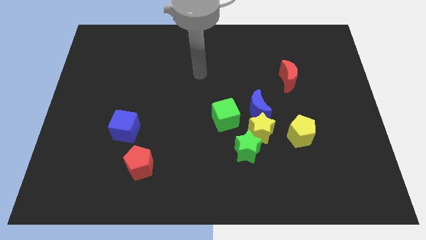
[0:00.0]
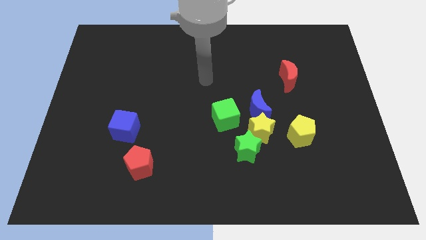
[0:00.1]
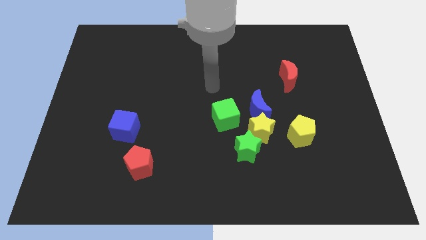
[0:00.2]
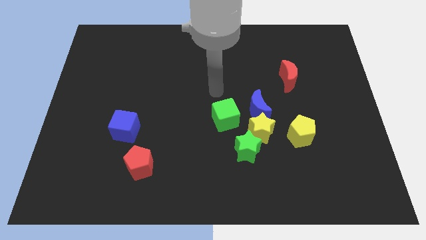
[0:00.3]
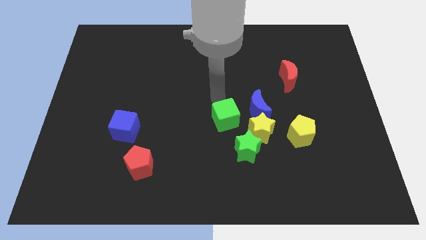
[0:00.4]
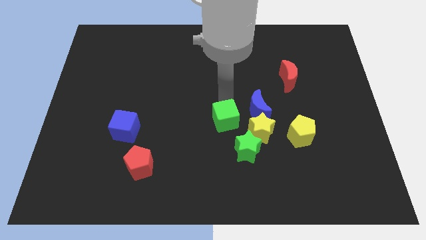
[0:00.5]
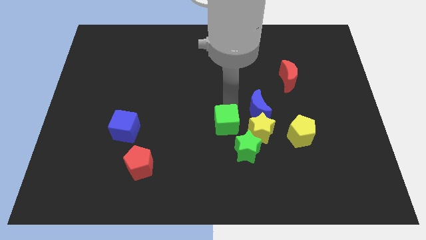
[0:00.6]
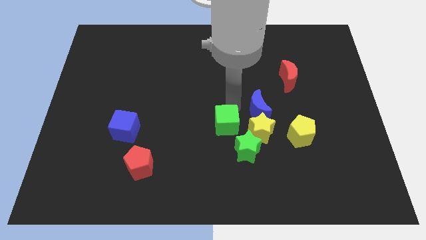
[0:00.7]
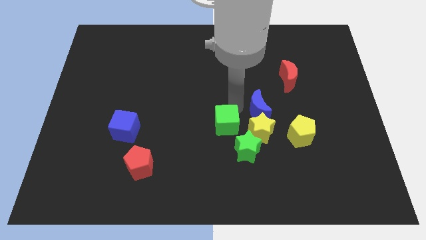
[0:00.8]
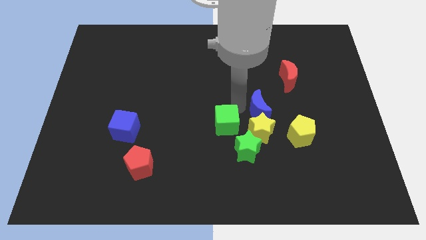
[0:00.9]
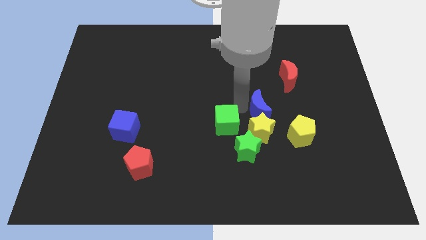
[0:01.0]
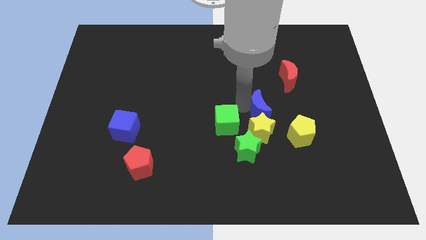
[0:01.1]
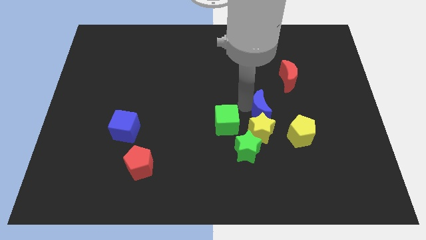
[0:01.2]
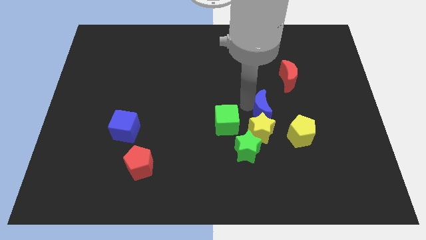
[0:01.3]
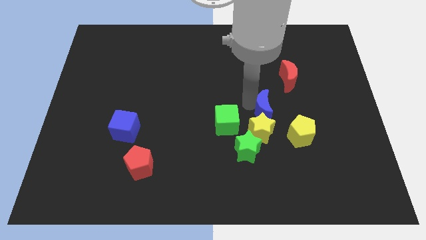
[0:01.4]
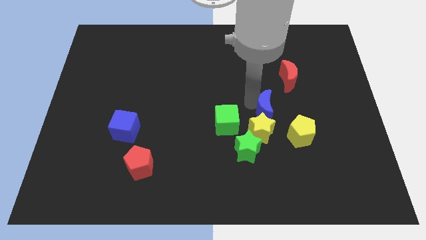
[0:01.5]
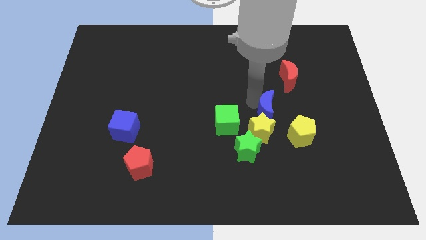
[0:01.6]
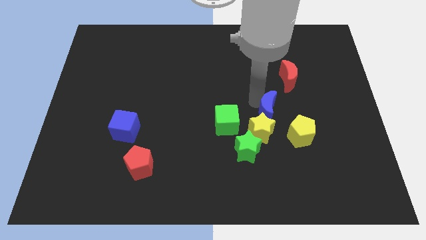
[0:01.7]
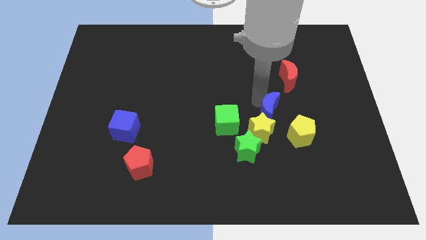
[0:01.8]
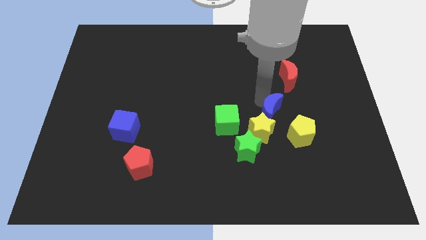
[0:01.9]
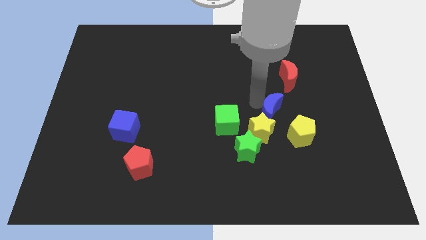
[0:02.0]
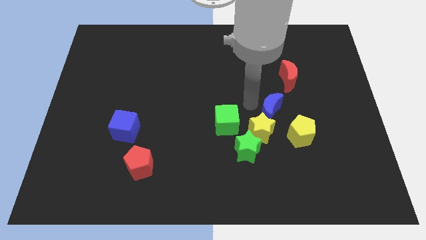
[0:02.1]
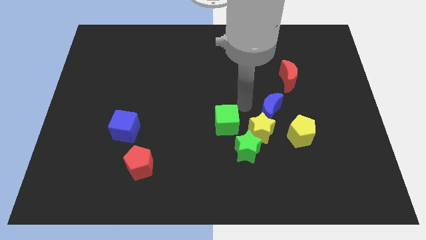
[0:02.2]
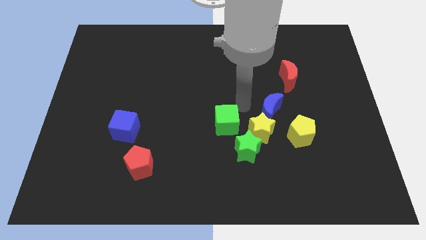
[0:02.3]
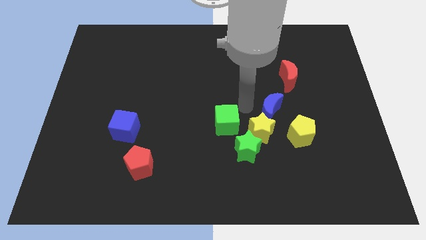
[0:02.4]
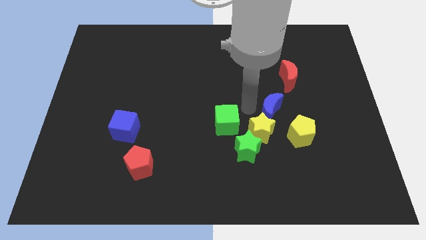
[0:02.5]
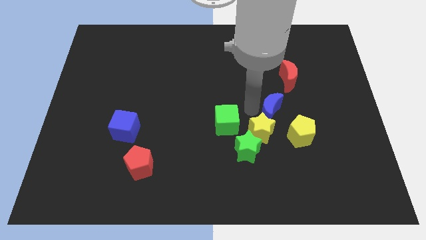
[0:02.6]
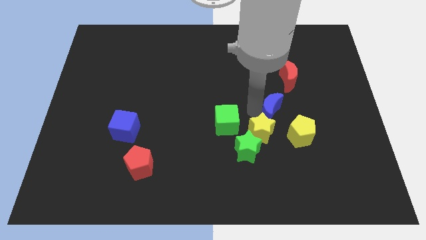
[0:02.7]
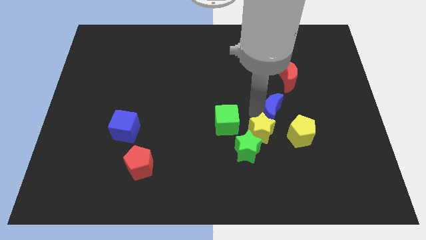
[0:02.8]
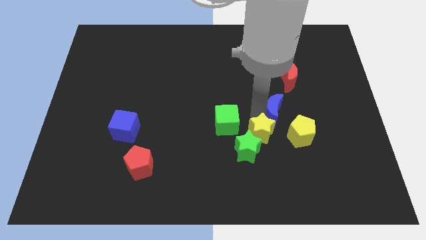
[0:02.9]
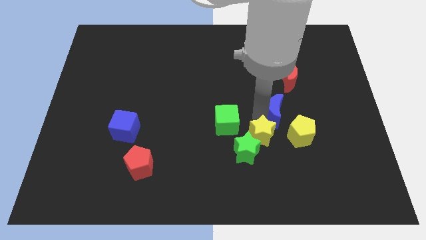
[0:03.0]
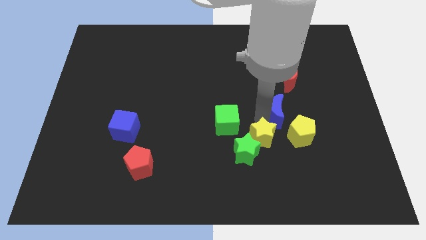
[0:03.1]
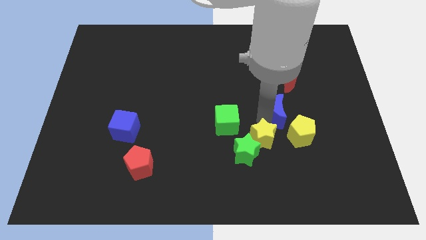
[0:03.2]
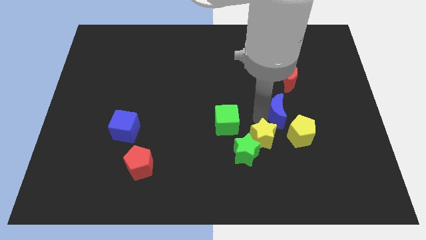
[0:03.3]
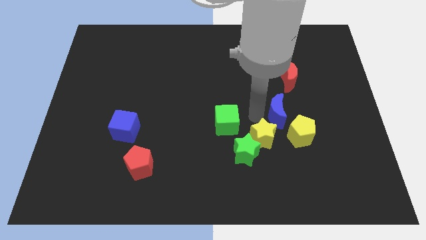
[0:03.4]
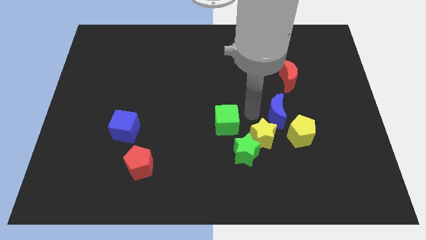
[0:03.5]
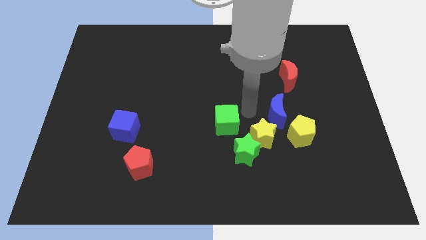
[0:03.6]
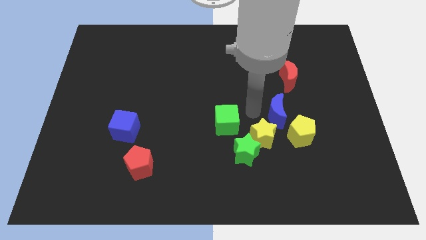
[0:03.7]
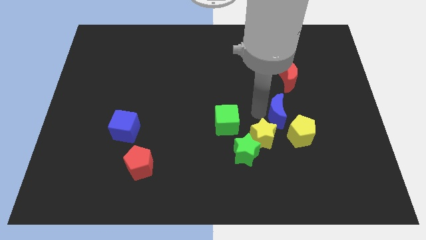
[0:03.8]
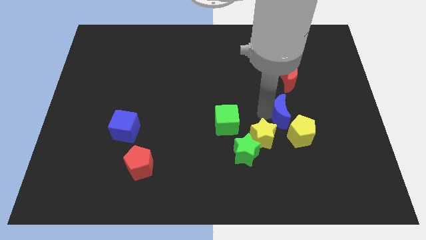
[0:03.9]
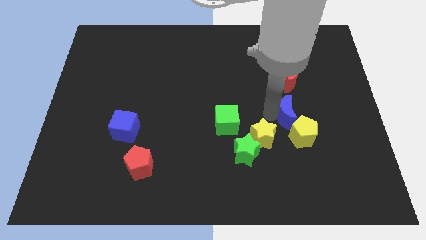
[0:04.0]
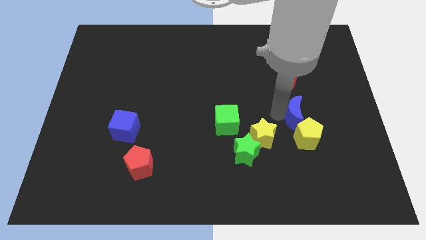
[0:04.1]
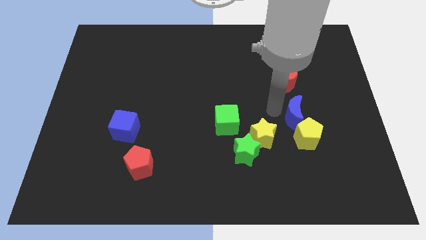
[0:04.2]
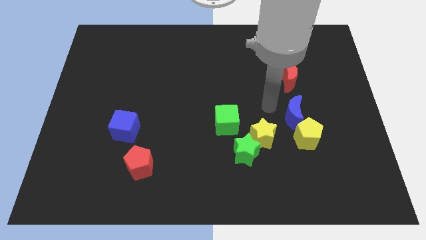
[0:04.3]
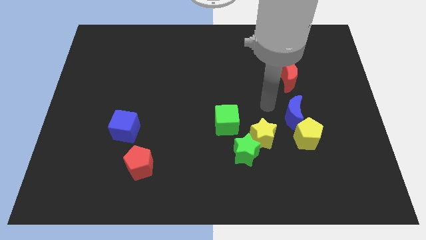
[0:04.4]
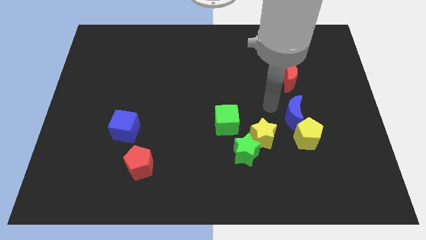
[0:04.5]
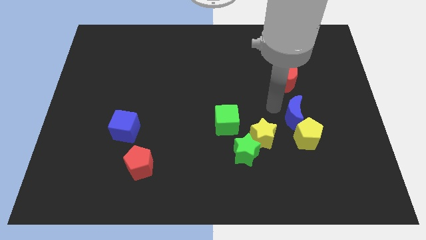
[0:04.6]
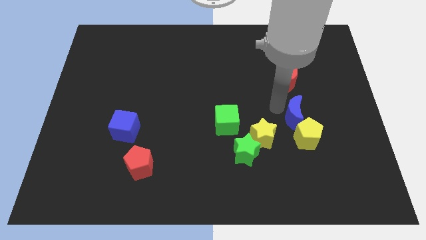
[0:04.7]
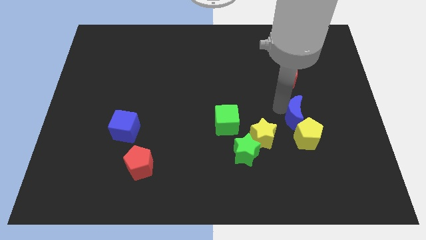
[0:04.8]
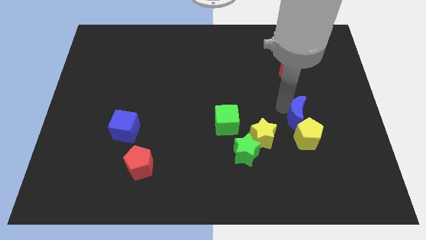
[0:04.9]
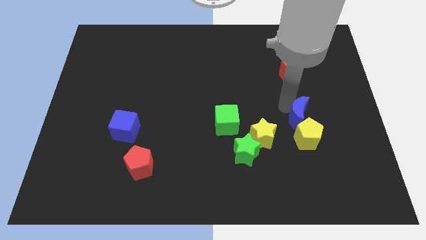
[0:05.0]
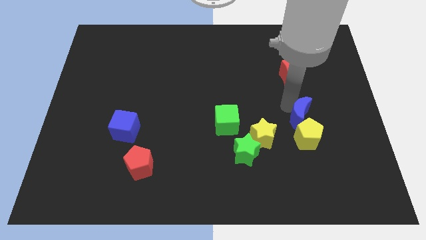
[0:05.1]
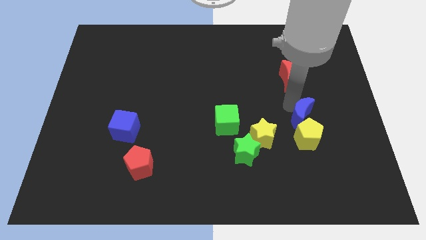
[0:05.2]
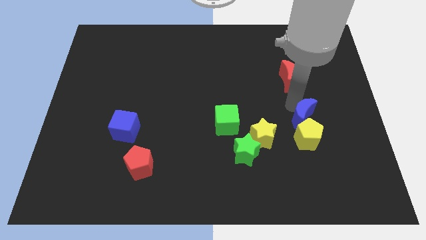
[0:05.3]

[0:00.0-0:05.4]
slide the blue moon down and then to the right a little

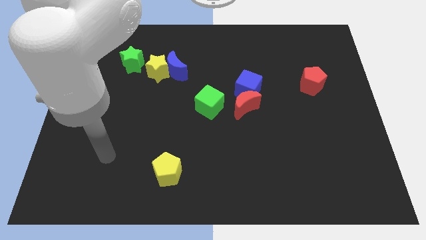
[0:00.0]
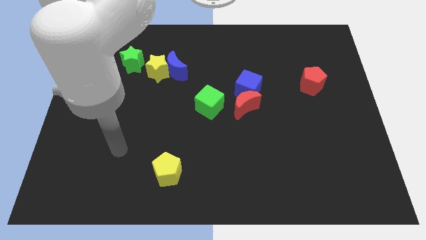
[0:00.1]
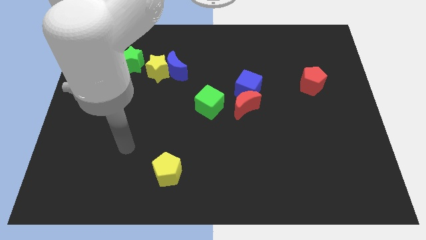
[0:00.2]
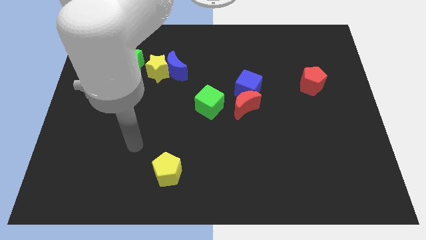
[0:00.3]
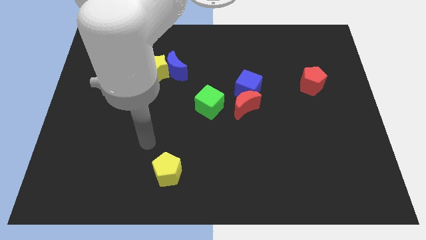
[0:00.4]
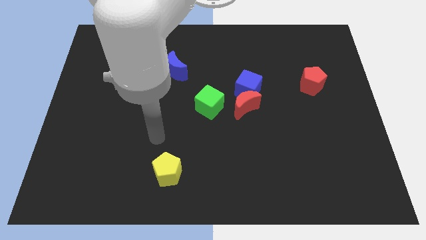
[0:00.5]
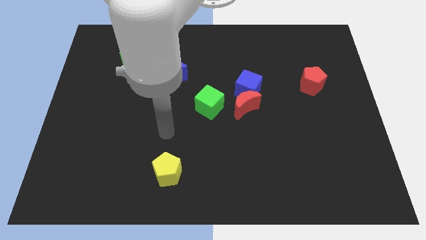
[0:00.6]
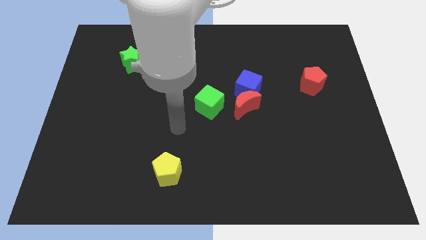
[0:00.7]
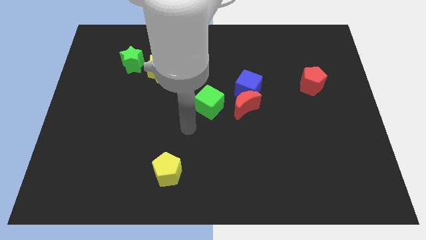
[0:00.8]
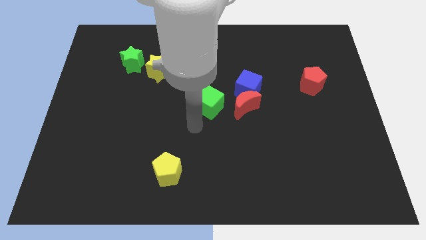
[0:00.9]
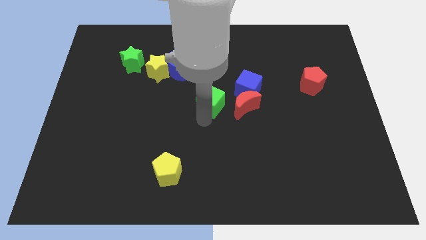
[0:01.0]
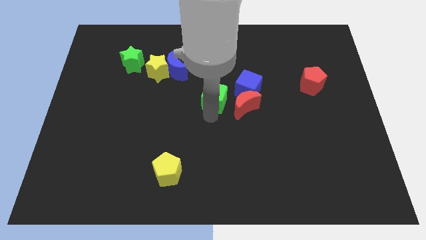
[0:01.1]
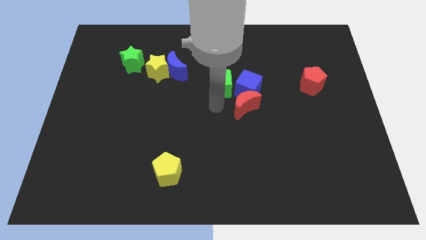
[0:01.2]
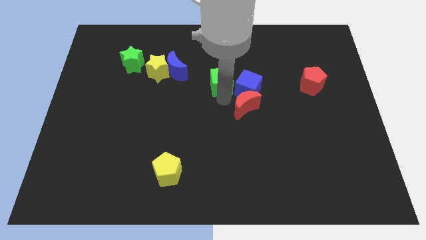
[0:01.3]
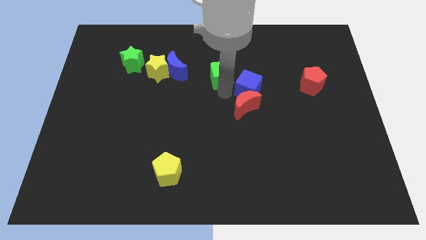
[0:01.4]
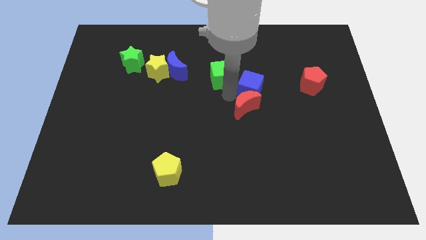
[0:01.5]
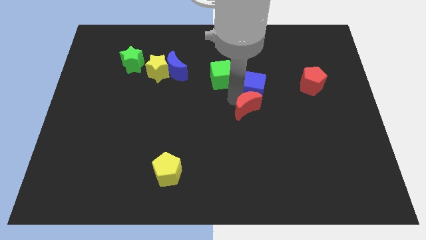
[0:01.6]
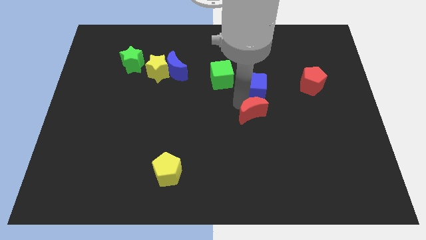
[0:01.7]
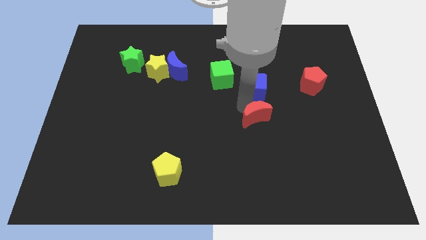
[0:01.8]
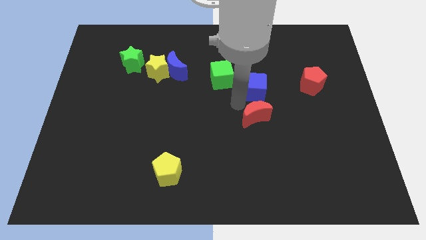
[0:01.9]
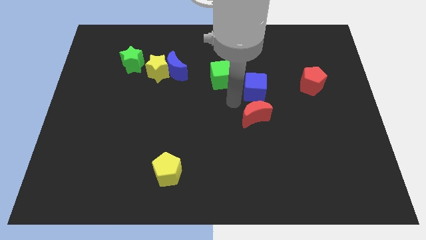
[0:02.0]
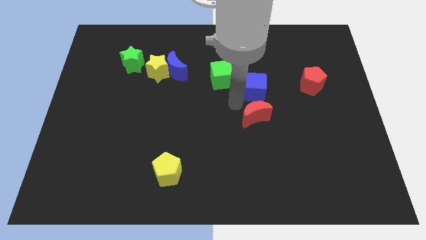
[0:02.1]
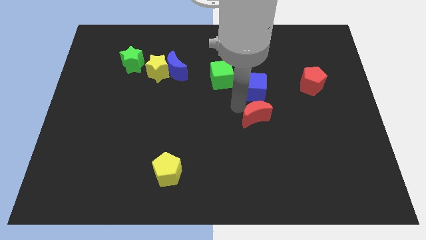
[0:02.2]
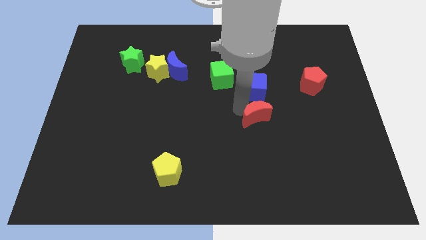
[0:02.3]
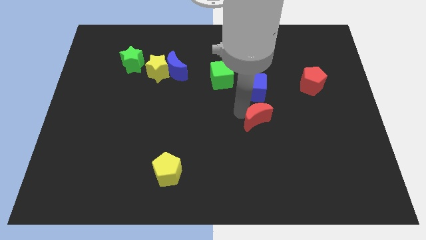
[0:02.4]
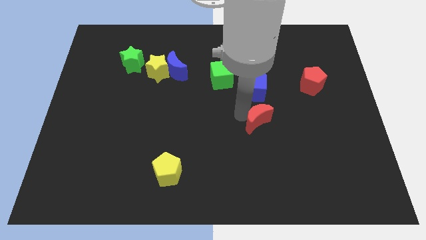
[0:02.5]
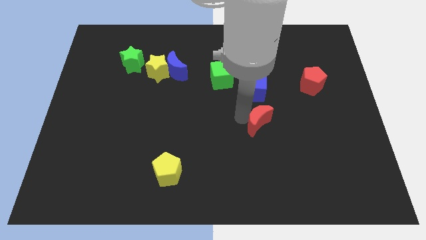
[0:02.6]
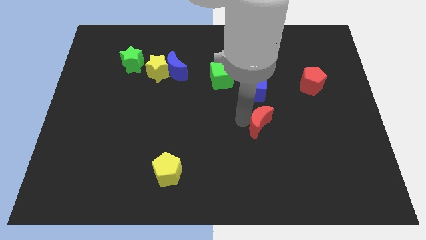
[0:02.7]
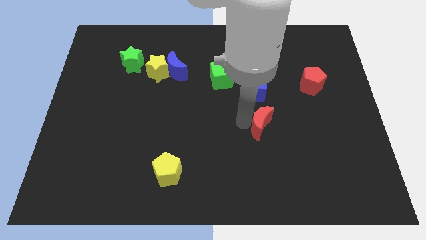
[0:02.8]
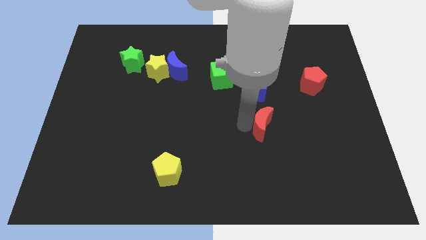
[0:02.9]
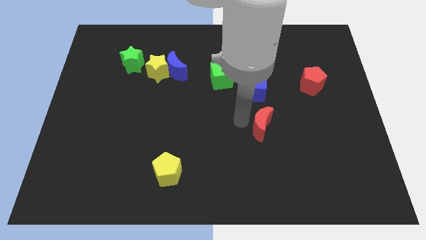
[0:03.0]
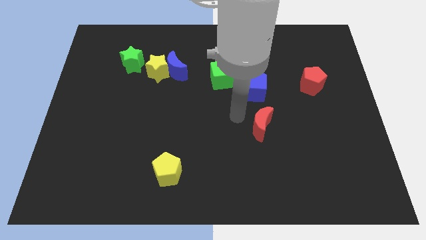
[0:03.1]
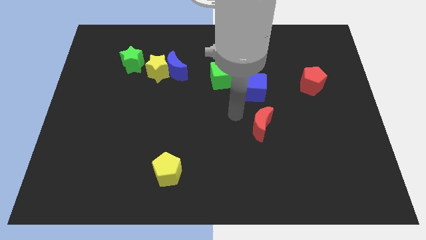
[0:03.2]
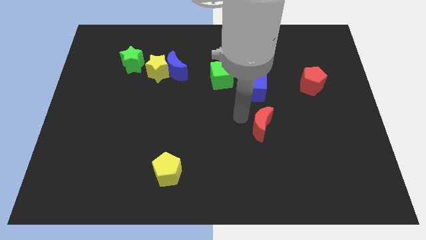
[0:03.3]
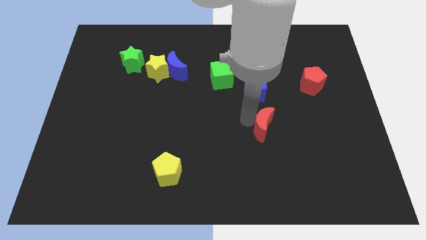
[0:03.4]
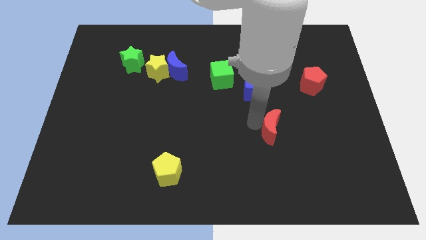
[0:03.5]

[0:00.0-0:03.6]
push the red moon downwards and then to the right somewhat
